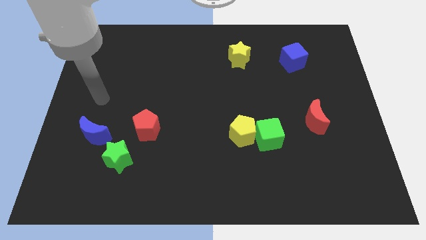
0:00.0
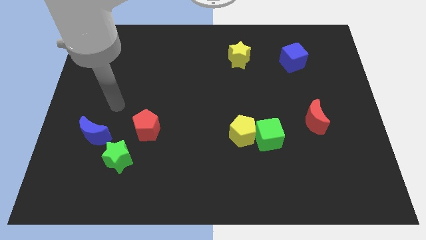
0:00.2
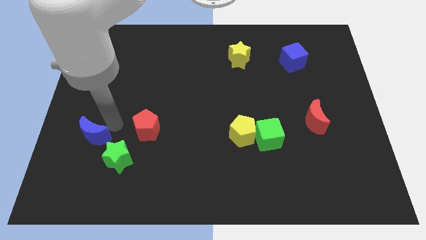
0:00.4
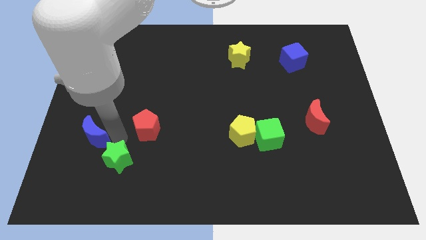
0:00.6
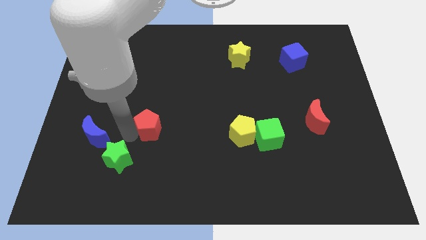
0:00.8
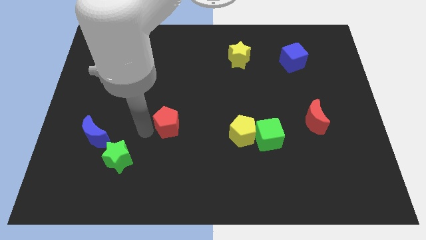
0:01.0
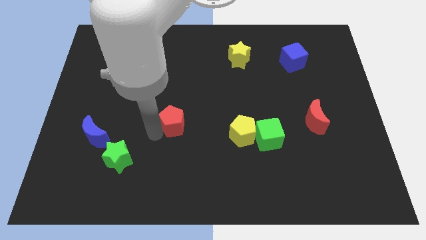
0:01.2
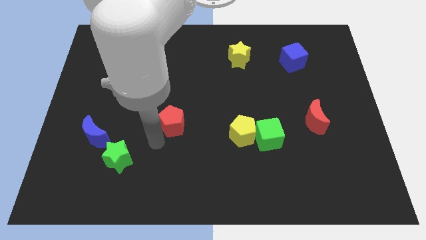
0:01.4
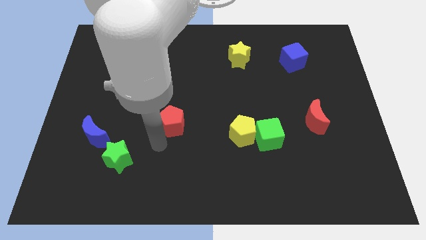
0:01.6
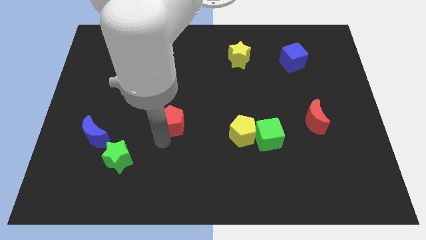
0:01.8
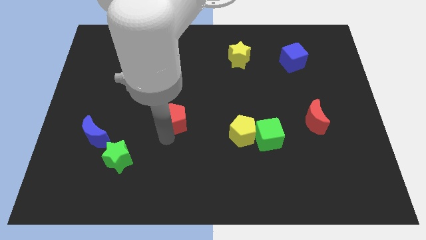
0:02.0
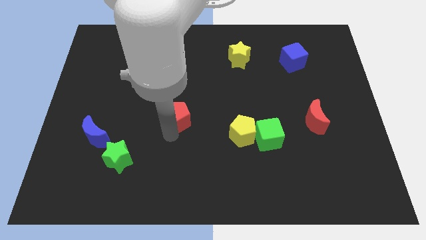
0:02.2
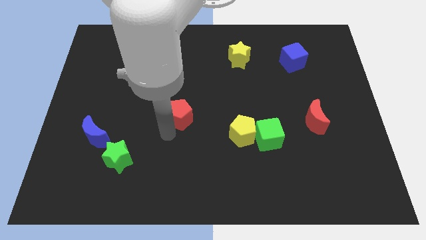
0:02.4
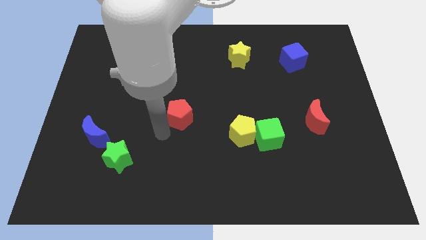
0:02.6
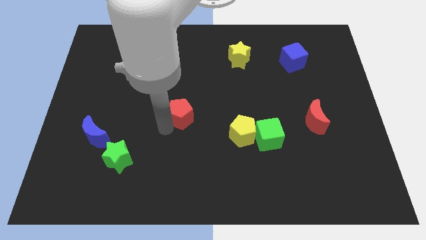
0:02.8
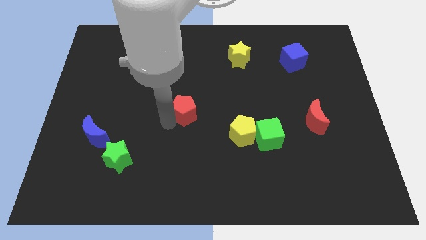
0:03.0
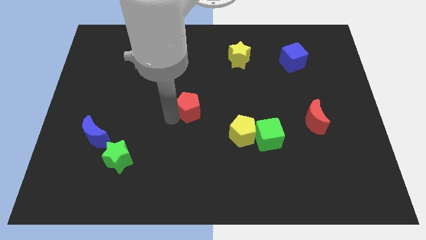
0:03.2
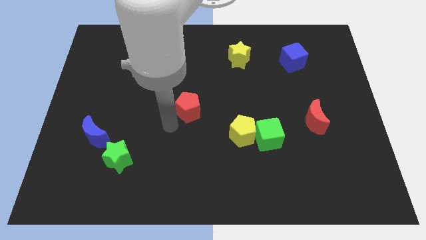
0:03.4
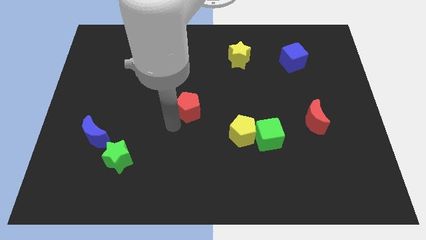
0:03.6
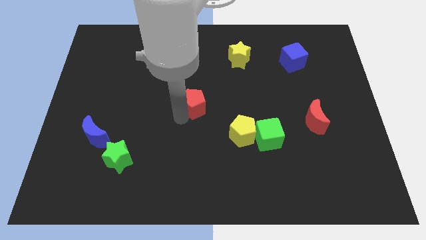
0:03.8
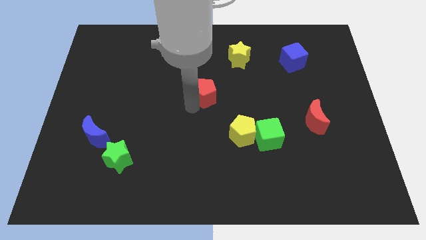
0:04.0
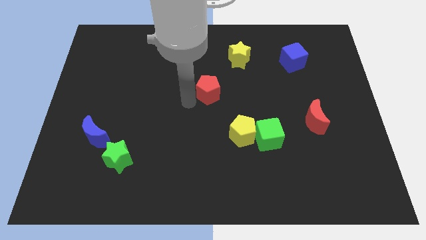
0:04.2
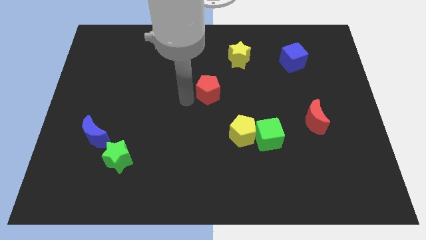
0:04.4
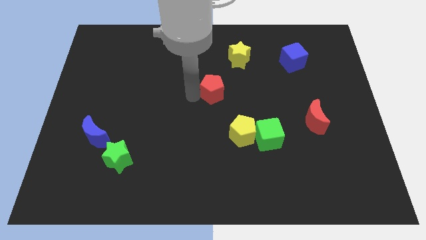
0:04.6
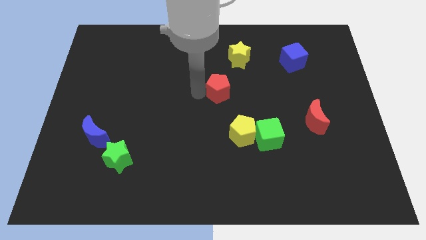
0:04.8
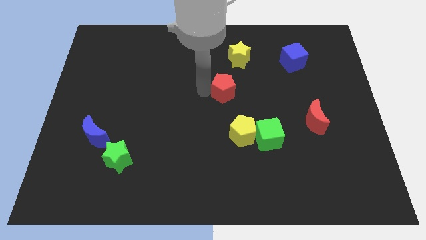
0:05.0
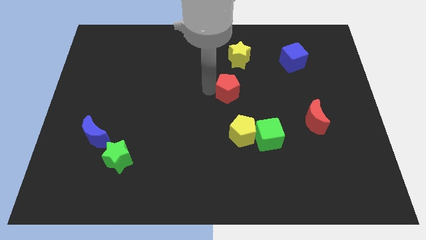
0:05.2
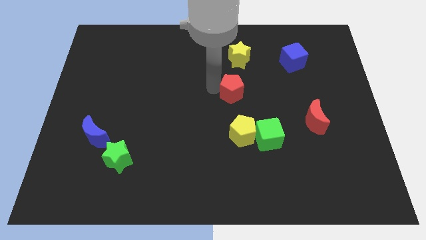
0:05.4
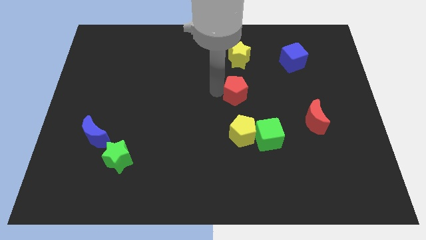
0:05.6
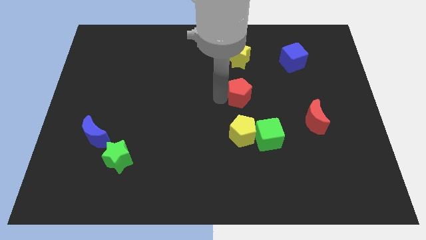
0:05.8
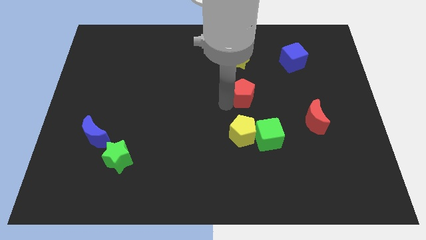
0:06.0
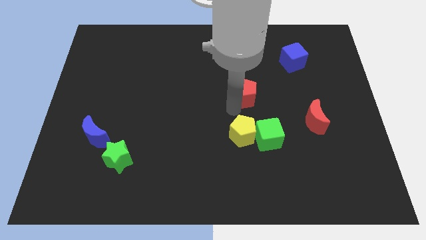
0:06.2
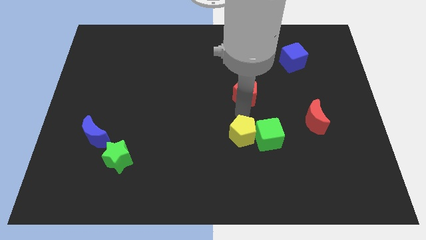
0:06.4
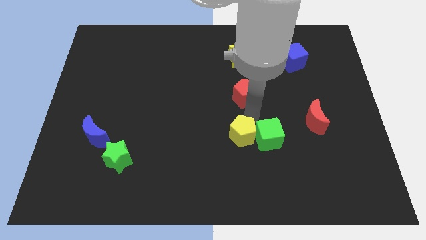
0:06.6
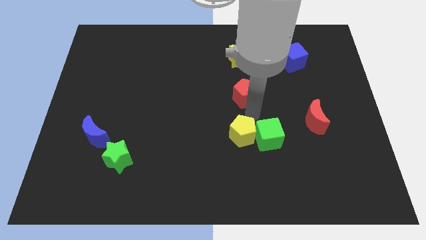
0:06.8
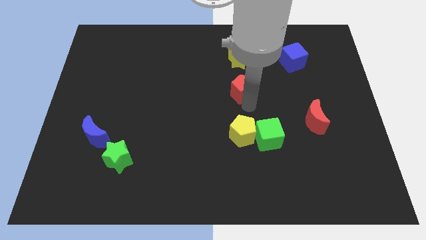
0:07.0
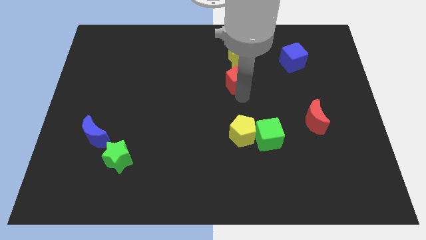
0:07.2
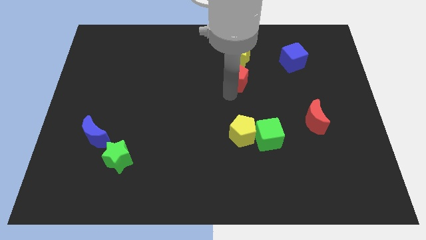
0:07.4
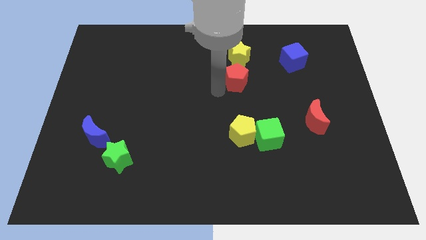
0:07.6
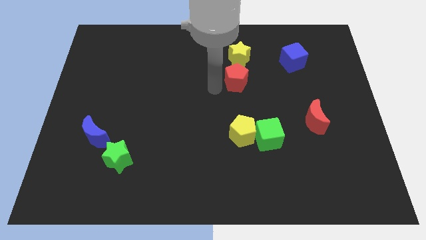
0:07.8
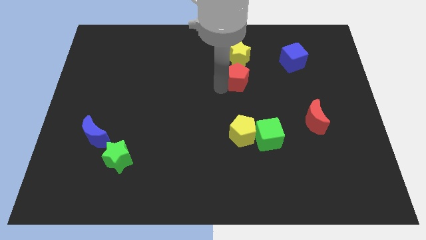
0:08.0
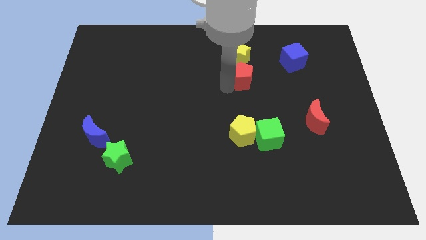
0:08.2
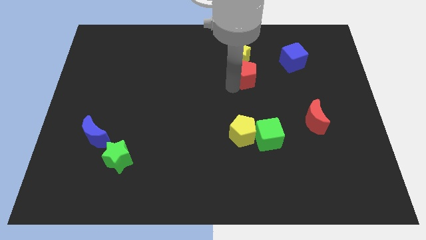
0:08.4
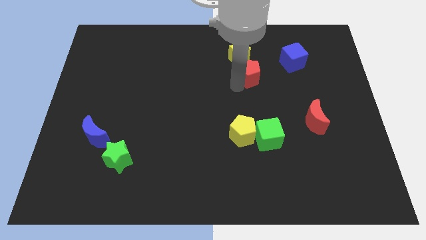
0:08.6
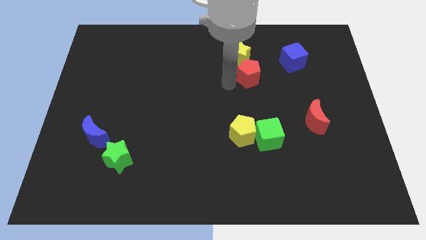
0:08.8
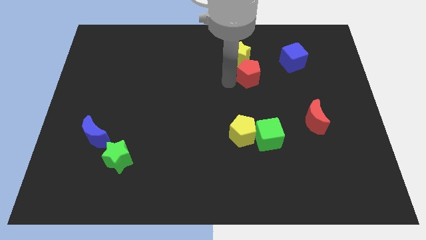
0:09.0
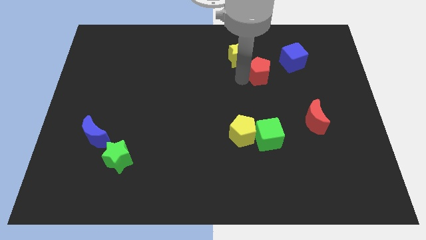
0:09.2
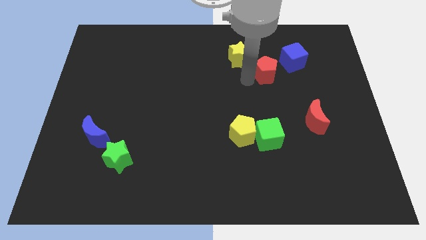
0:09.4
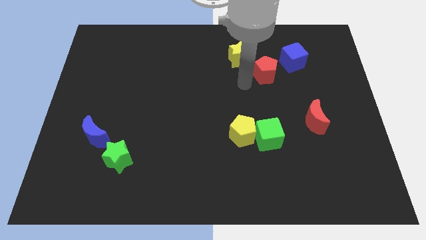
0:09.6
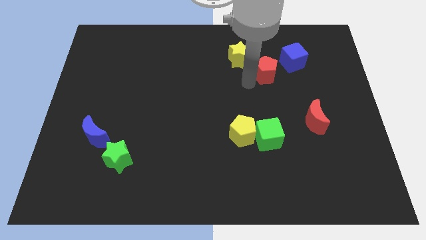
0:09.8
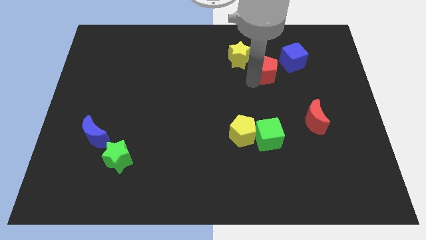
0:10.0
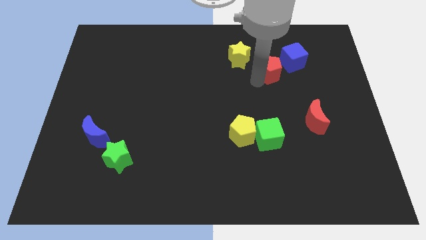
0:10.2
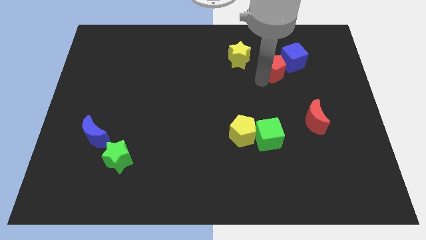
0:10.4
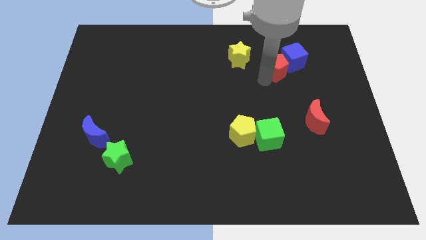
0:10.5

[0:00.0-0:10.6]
put the red pentagon next to the blue cube

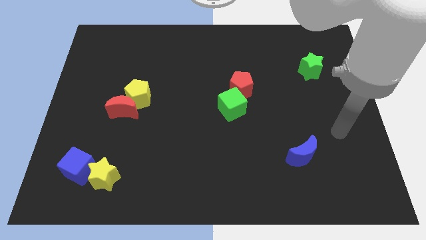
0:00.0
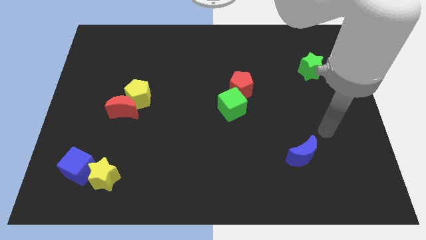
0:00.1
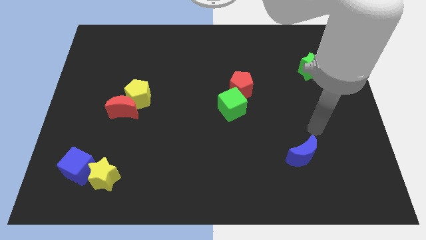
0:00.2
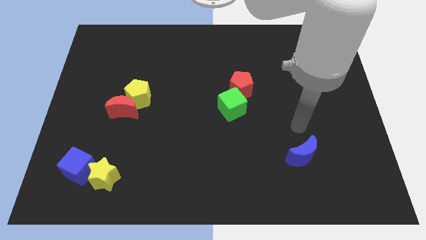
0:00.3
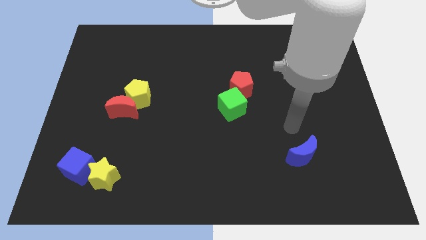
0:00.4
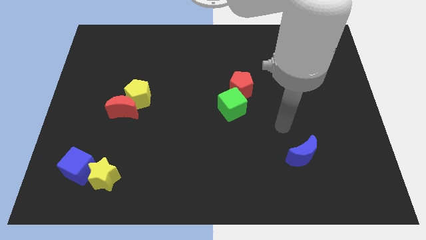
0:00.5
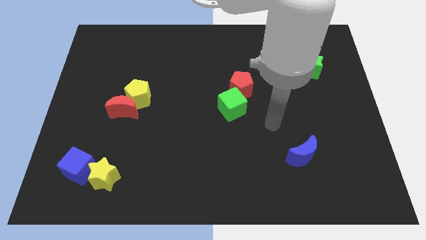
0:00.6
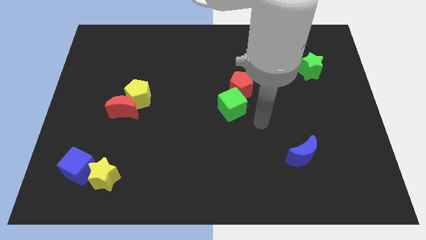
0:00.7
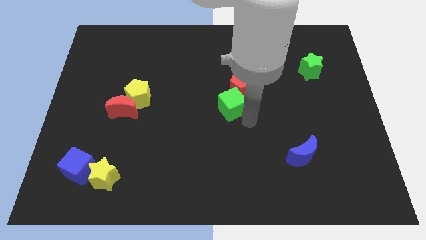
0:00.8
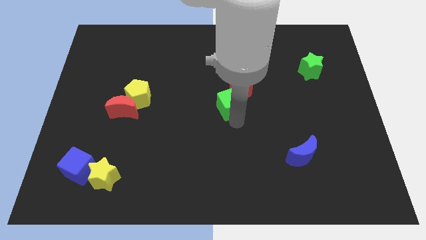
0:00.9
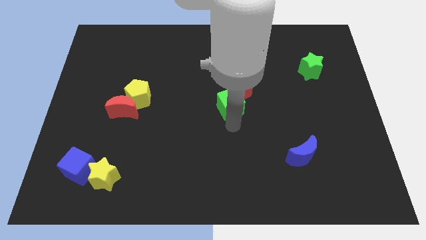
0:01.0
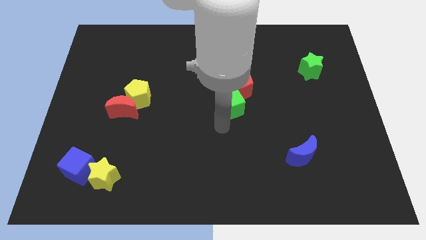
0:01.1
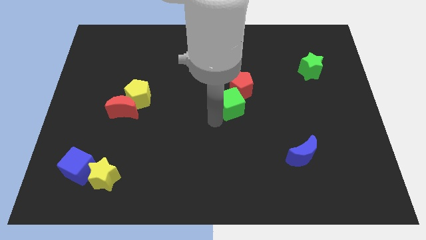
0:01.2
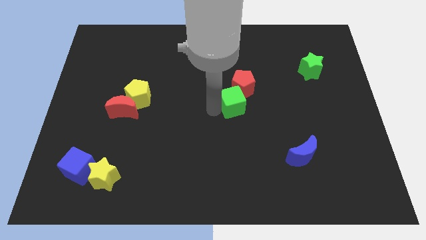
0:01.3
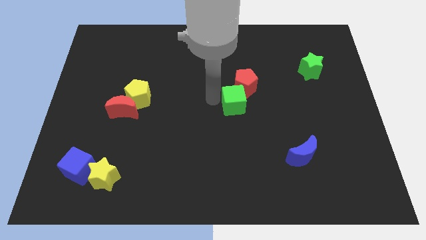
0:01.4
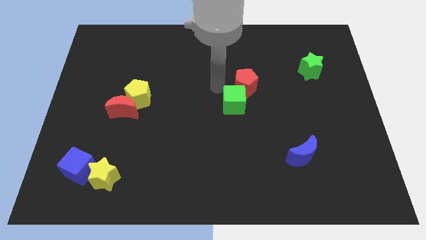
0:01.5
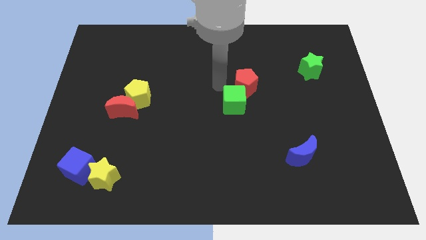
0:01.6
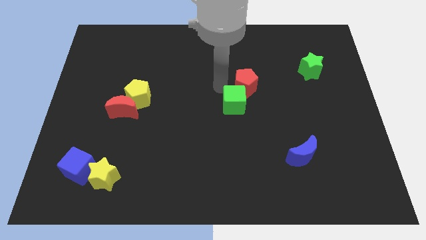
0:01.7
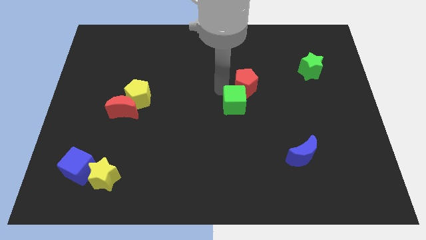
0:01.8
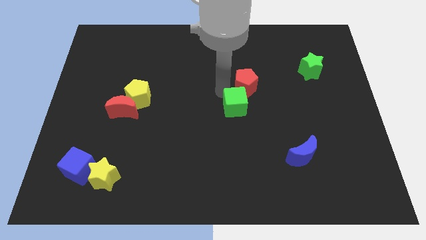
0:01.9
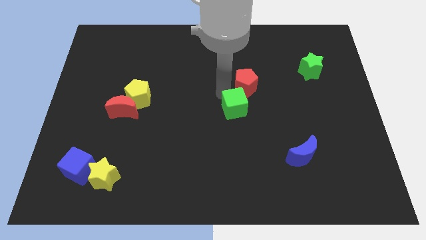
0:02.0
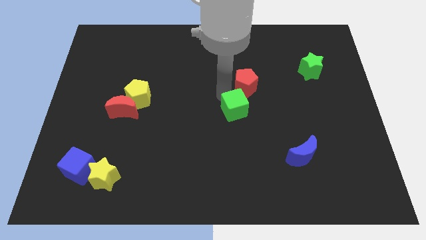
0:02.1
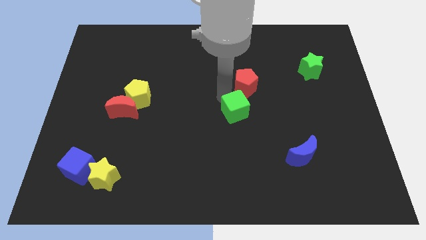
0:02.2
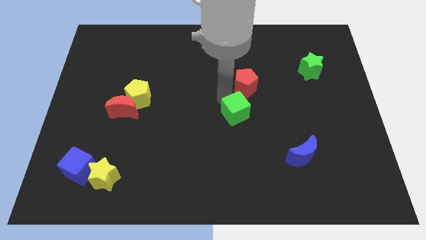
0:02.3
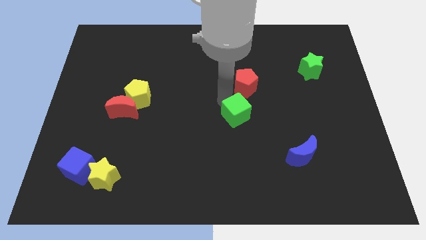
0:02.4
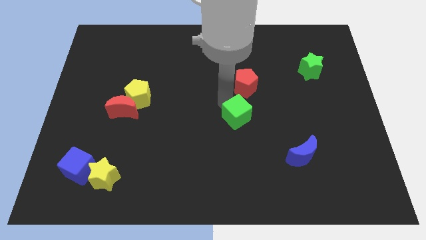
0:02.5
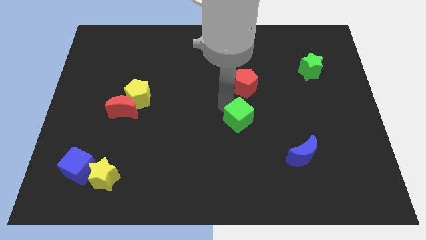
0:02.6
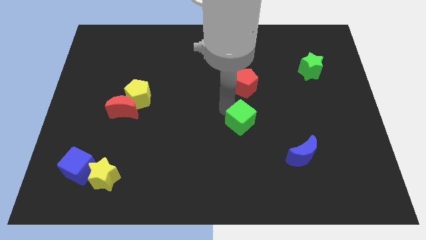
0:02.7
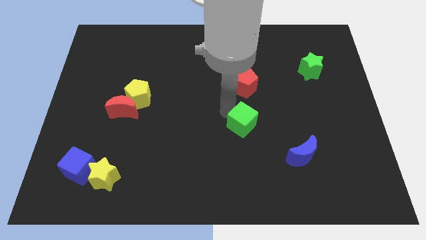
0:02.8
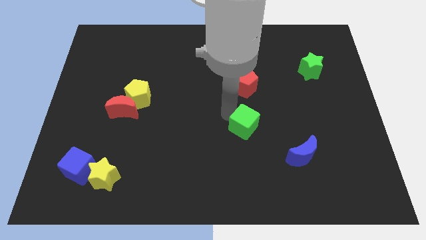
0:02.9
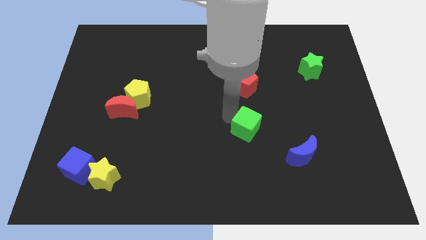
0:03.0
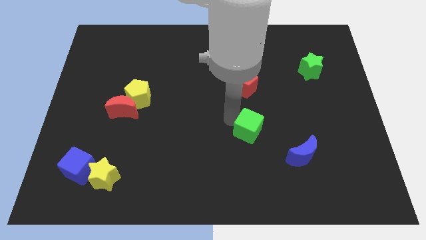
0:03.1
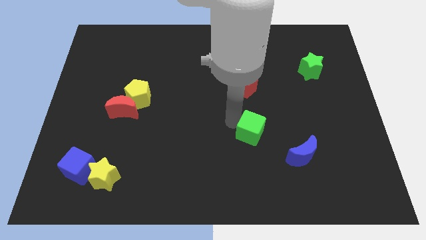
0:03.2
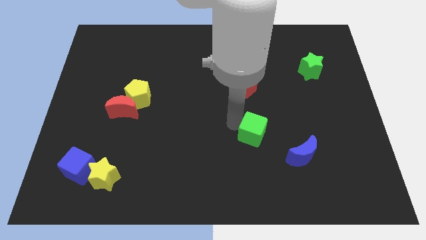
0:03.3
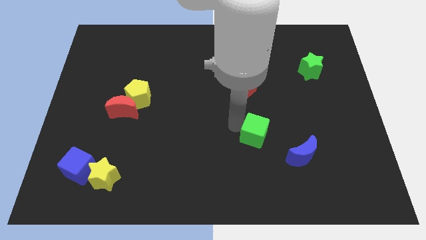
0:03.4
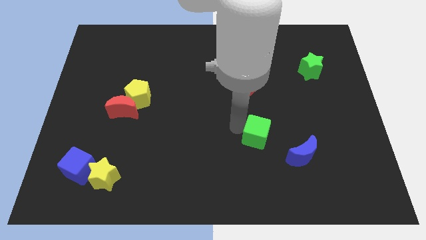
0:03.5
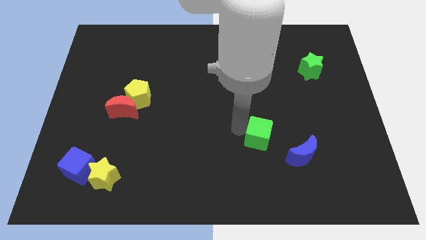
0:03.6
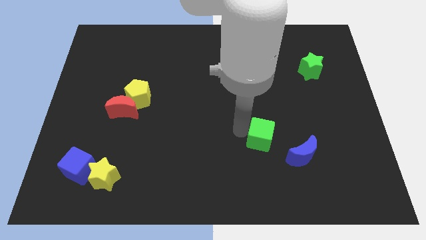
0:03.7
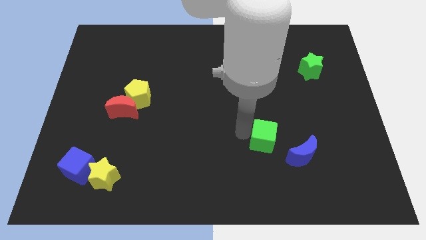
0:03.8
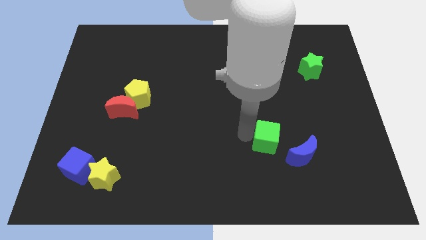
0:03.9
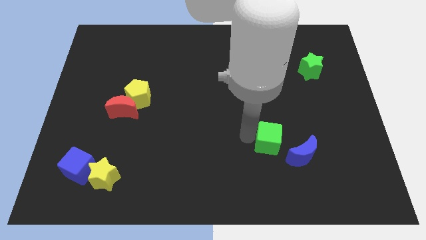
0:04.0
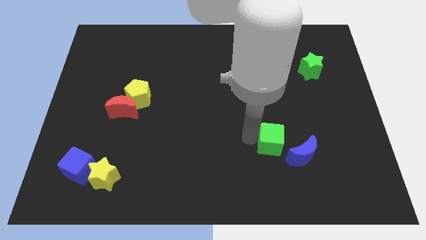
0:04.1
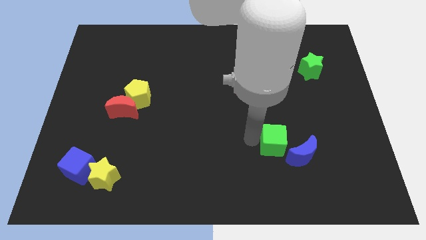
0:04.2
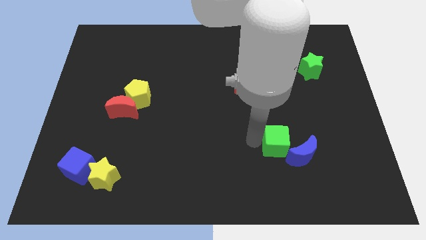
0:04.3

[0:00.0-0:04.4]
slide the green cube towards the blue moon
